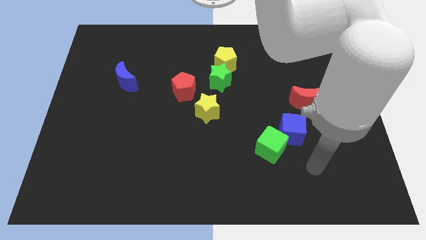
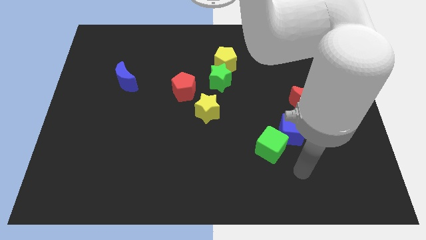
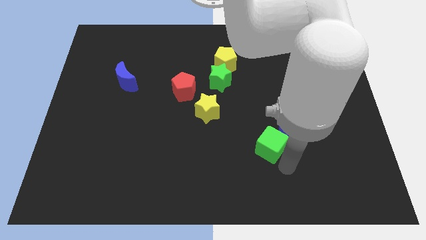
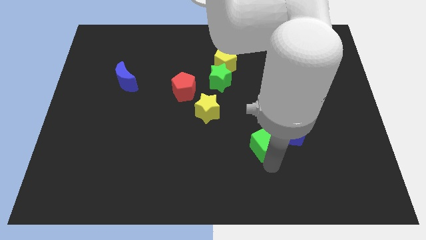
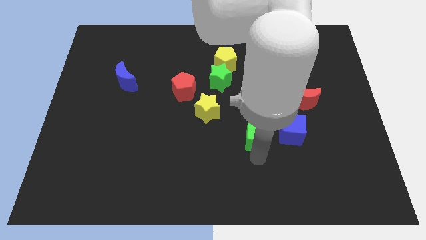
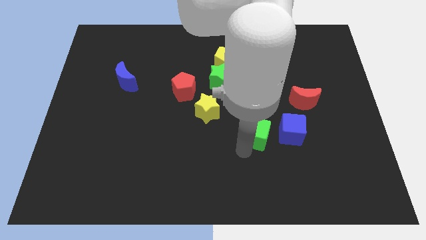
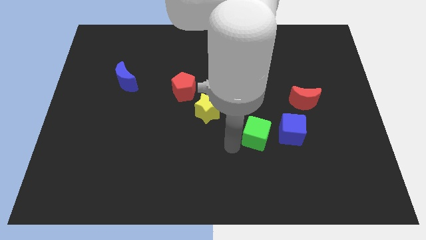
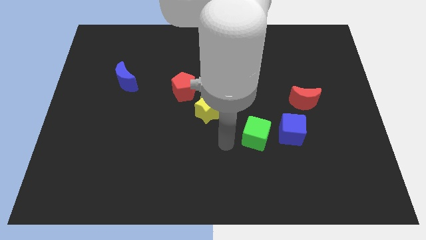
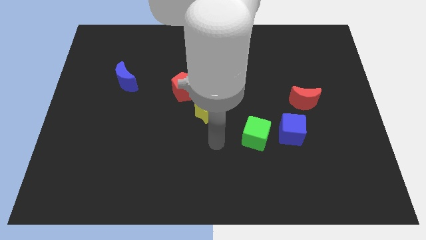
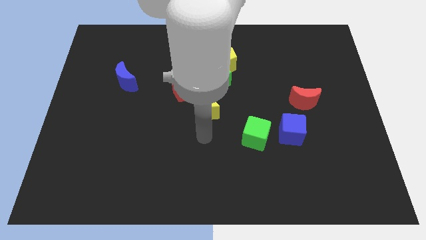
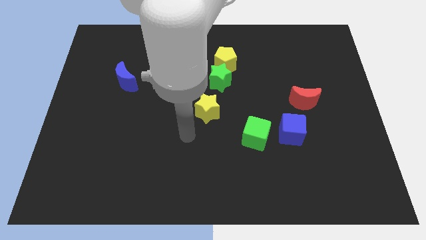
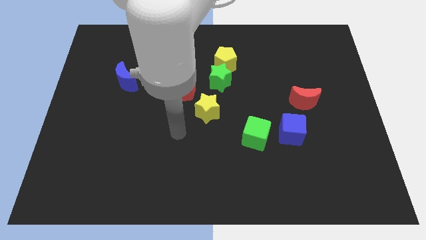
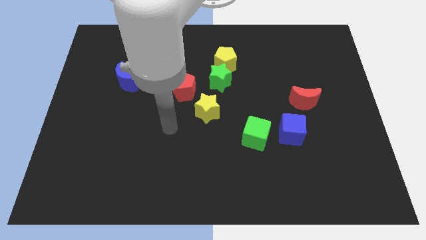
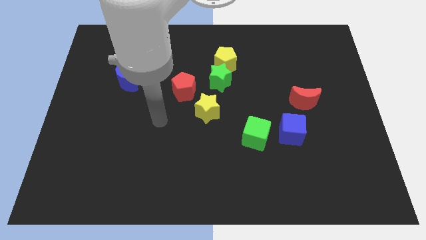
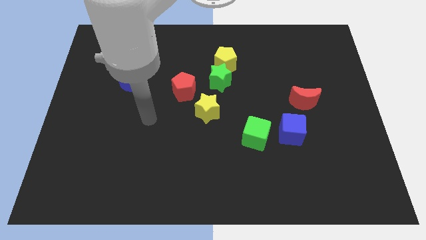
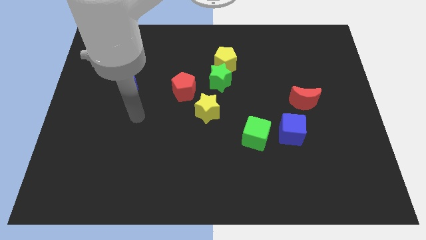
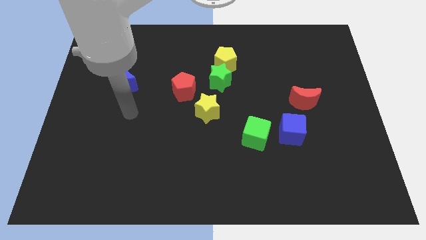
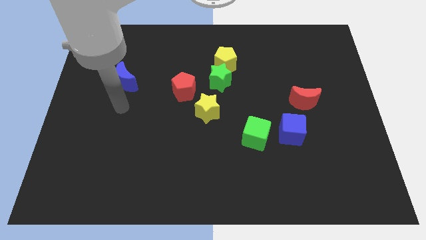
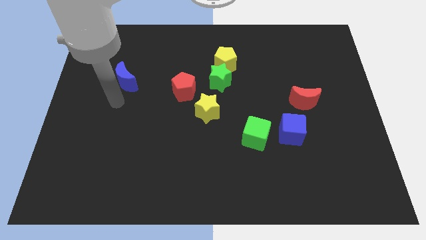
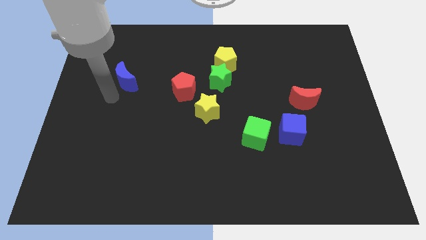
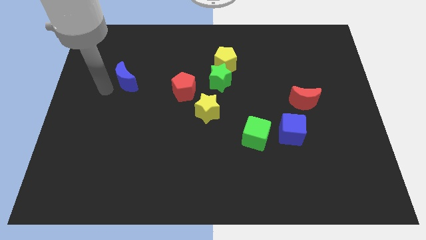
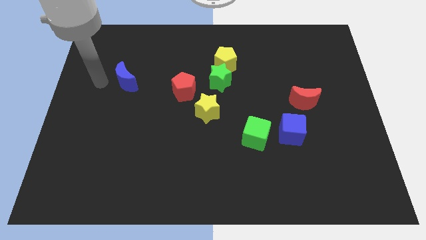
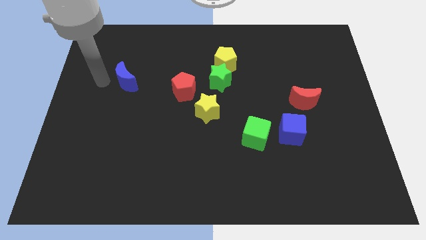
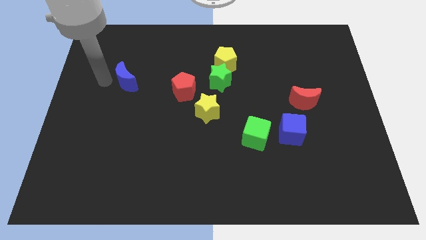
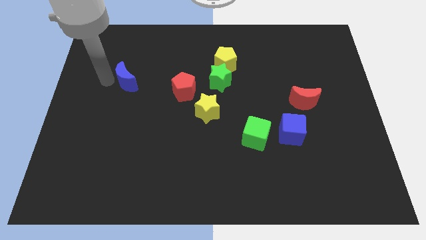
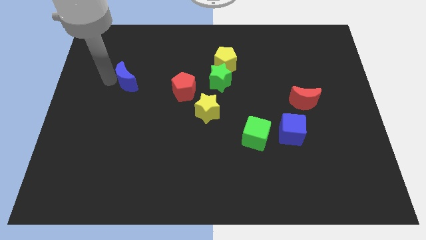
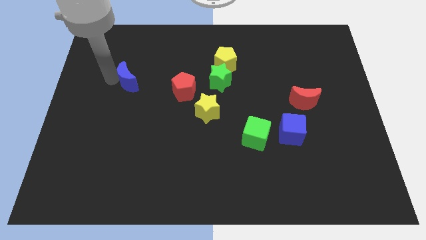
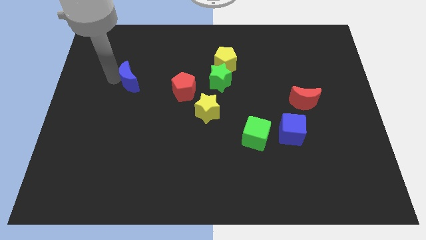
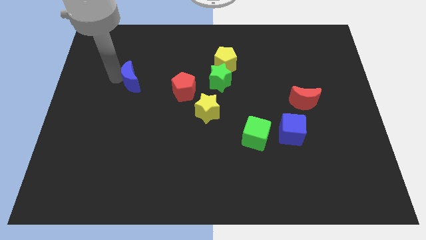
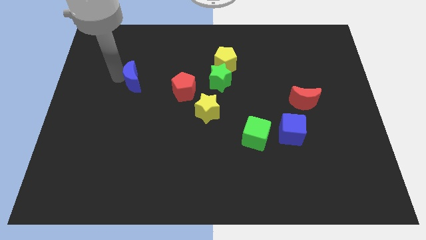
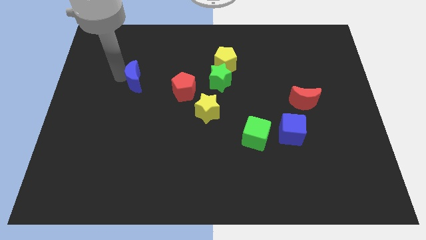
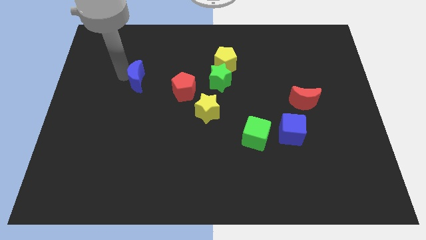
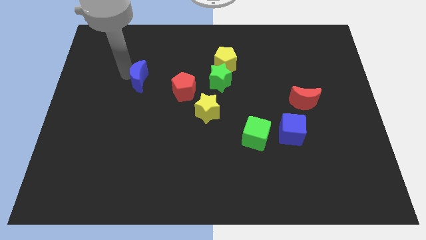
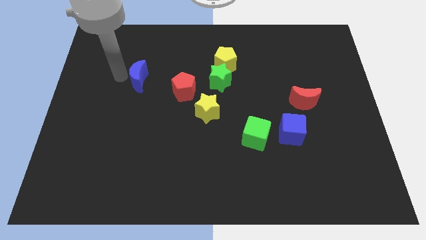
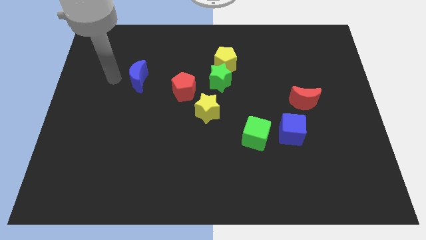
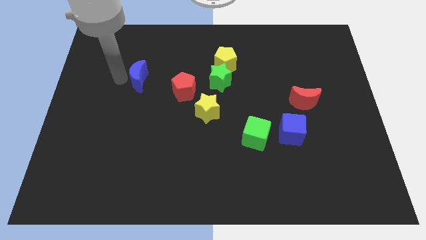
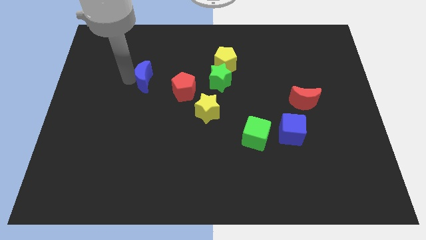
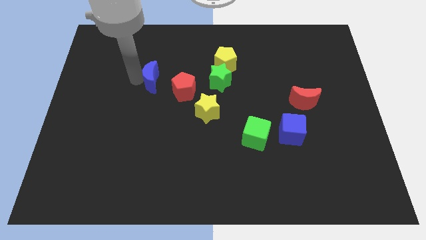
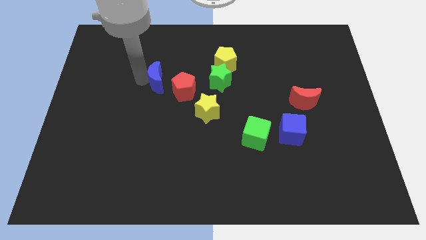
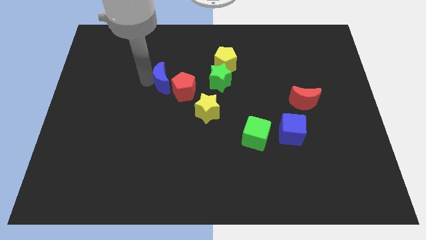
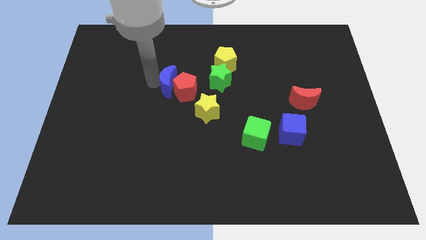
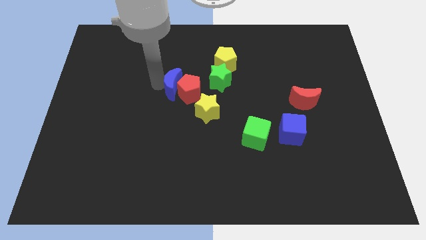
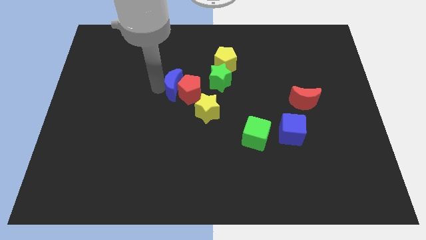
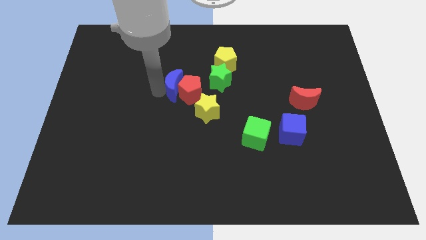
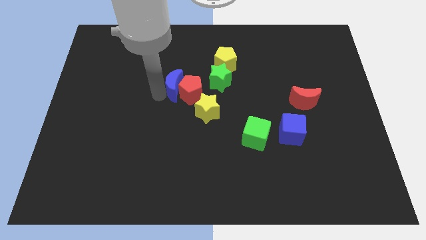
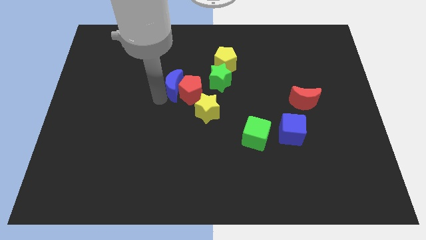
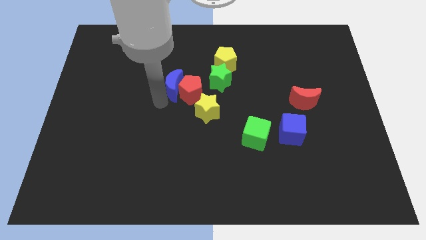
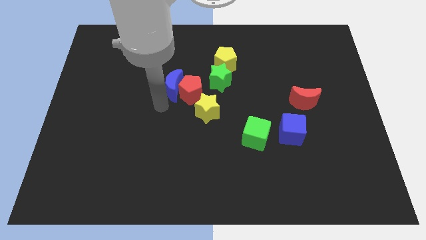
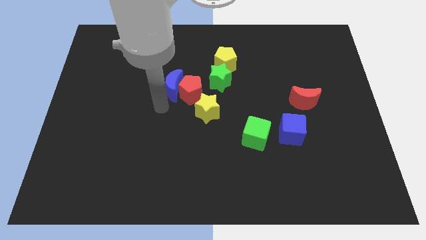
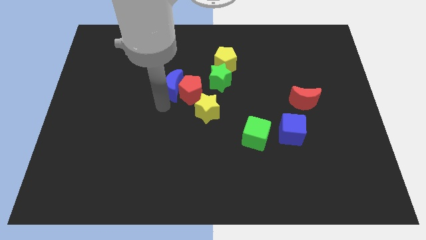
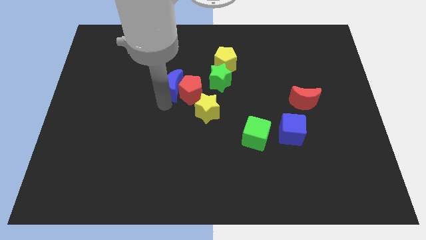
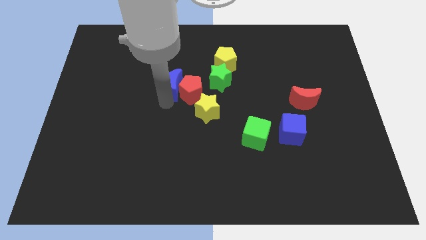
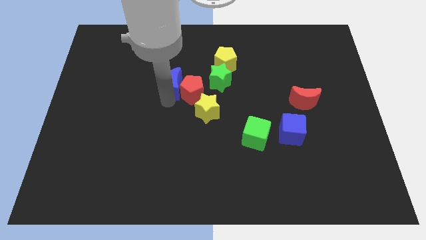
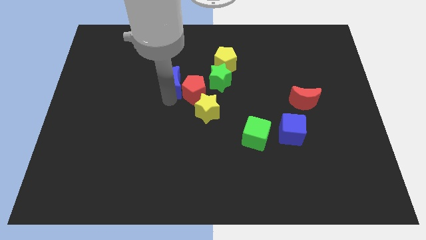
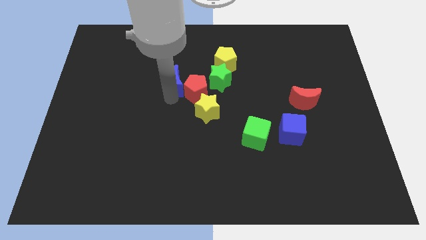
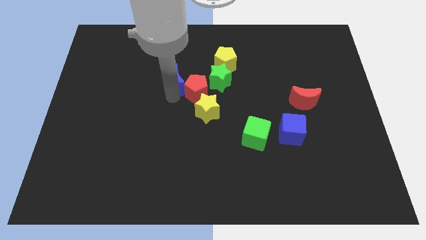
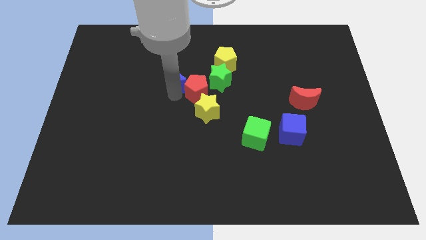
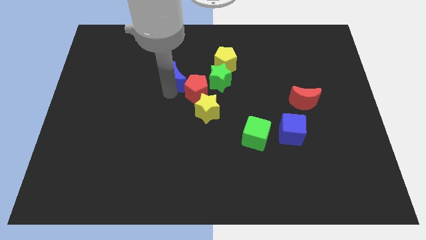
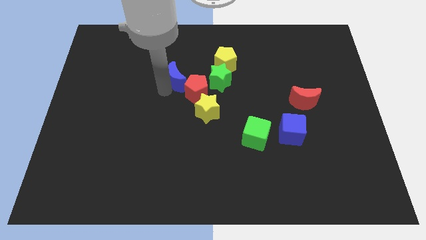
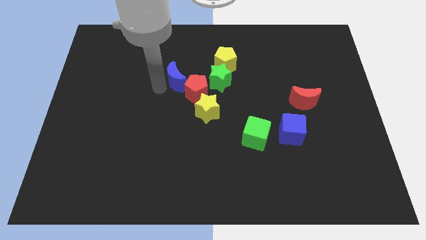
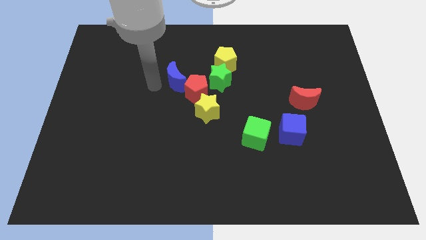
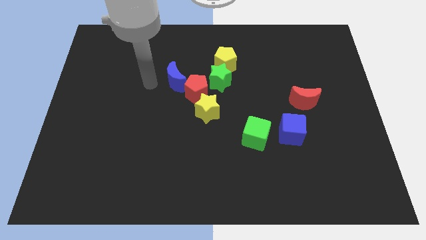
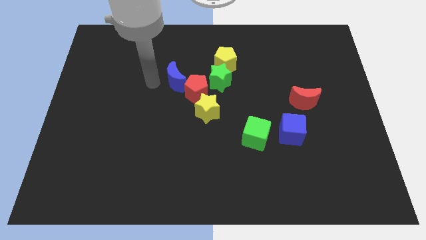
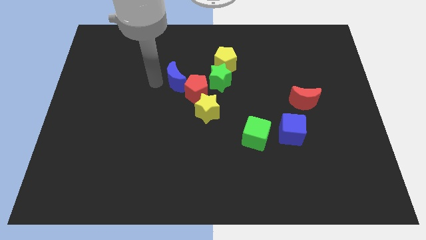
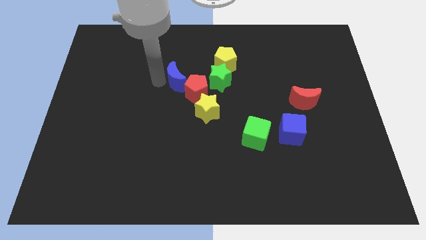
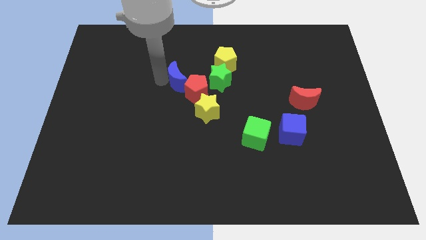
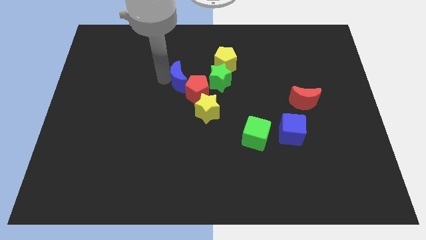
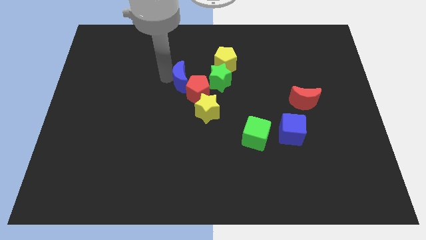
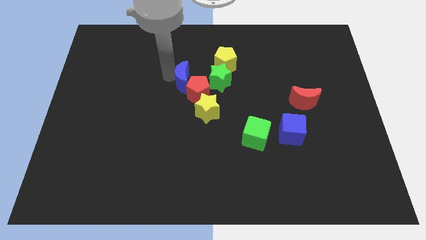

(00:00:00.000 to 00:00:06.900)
slide the blue moon to the bottom left side of the yellow pentagon
